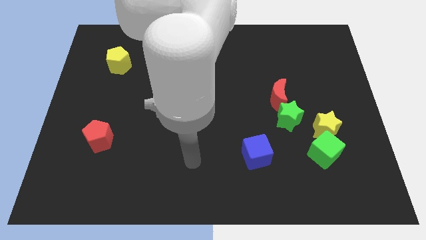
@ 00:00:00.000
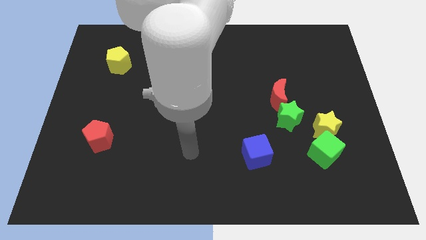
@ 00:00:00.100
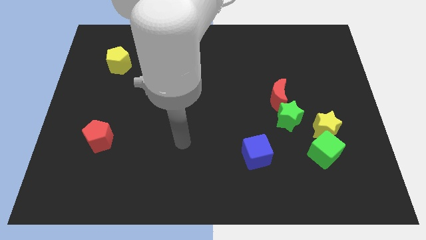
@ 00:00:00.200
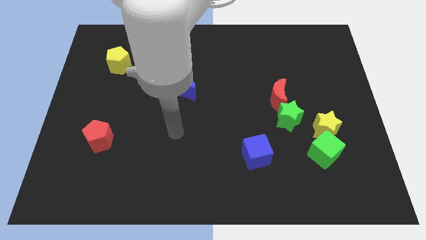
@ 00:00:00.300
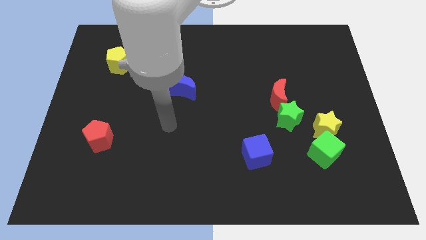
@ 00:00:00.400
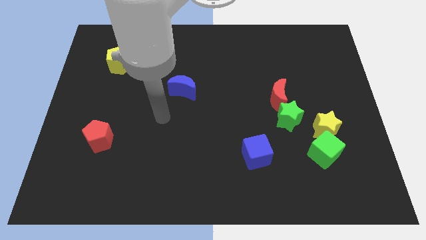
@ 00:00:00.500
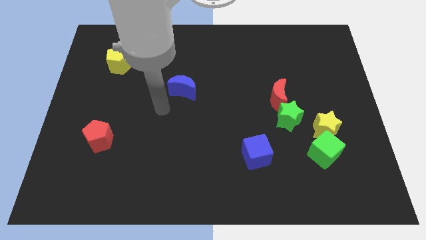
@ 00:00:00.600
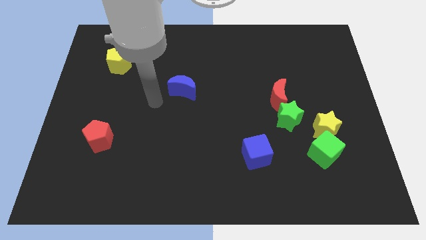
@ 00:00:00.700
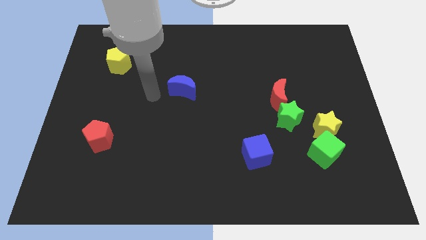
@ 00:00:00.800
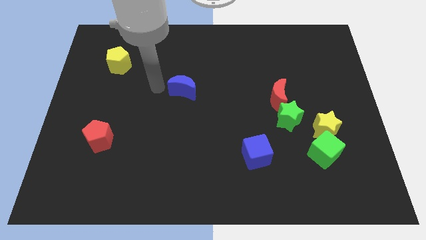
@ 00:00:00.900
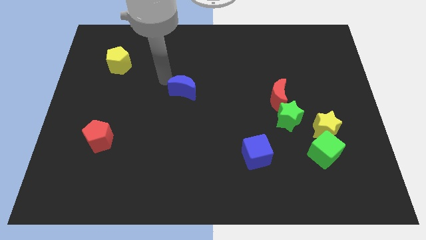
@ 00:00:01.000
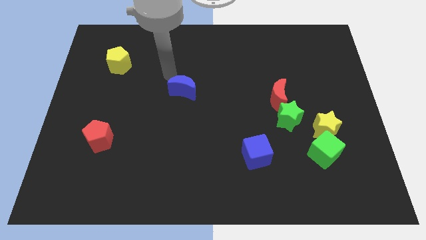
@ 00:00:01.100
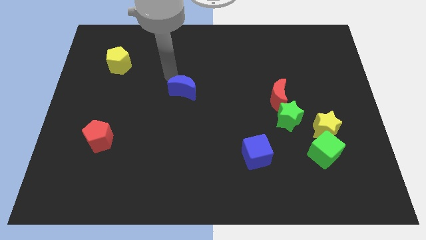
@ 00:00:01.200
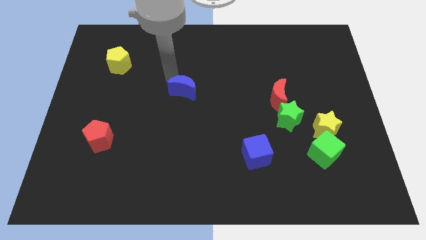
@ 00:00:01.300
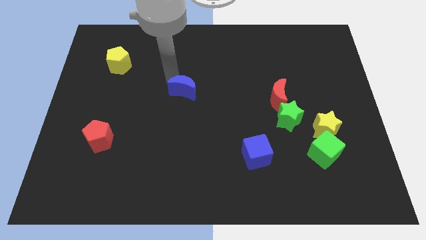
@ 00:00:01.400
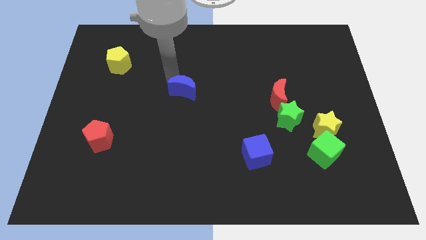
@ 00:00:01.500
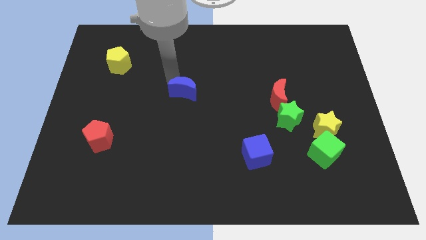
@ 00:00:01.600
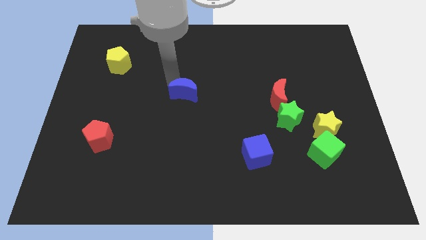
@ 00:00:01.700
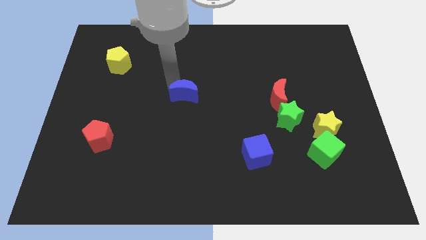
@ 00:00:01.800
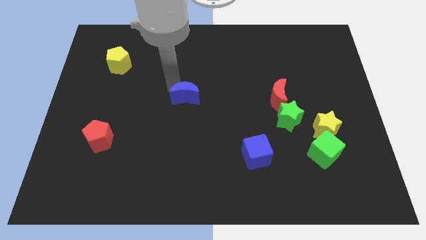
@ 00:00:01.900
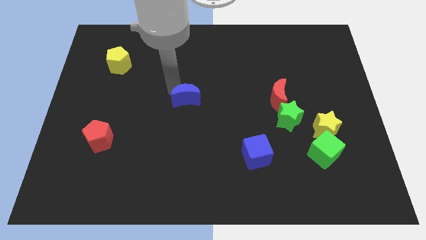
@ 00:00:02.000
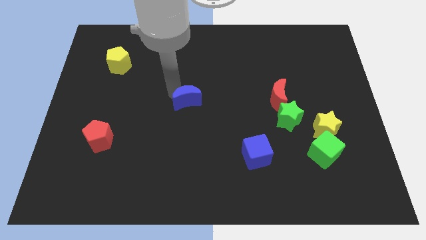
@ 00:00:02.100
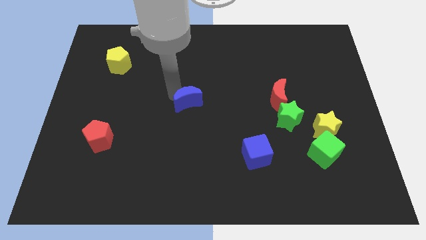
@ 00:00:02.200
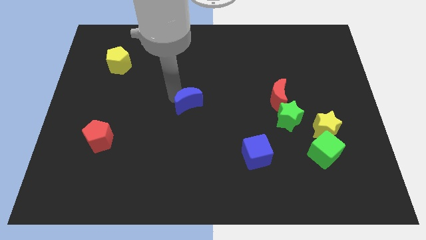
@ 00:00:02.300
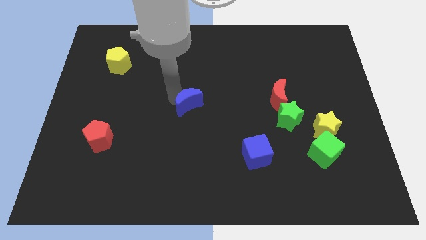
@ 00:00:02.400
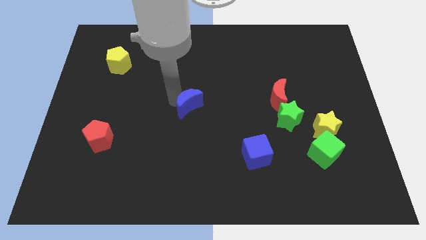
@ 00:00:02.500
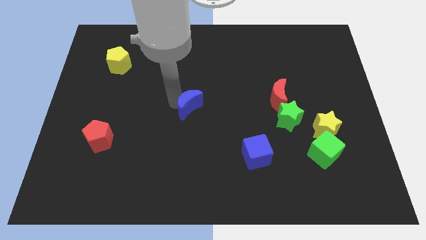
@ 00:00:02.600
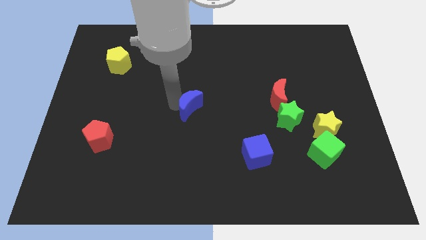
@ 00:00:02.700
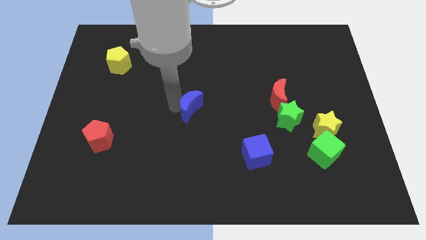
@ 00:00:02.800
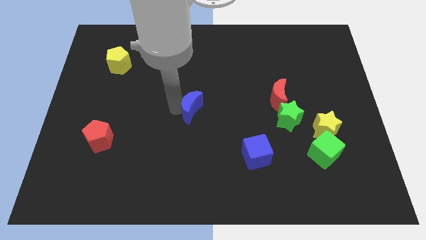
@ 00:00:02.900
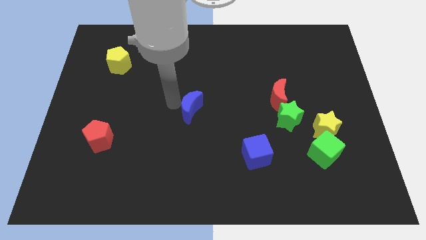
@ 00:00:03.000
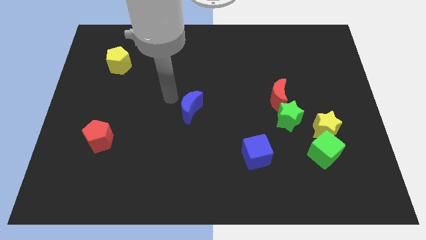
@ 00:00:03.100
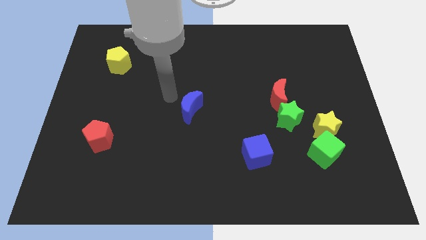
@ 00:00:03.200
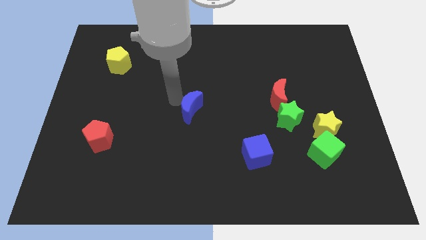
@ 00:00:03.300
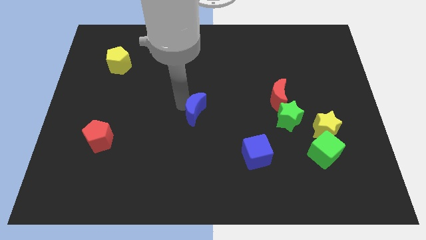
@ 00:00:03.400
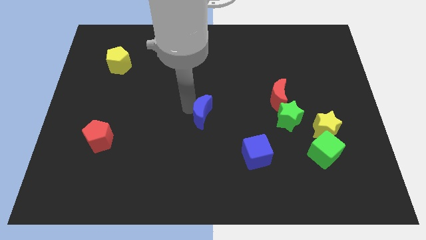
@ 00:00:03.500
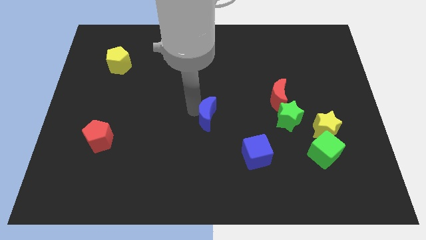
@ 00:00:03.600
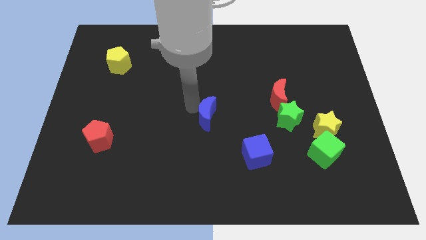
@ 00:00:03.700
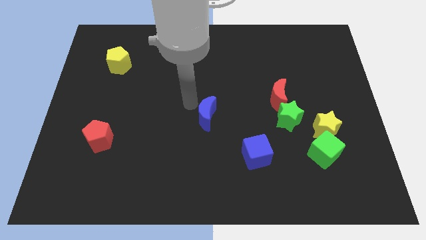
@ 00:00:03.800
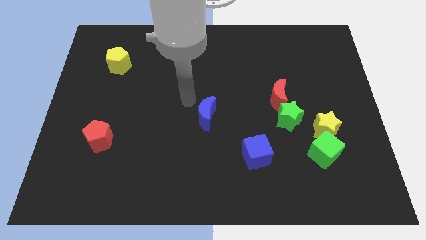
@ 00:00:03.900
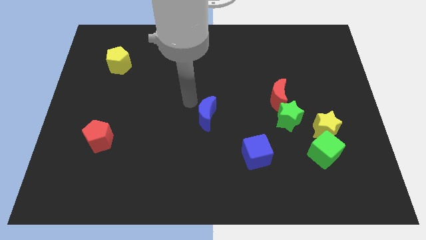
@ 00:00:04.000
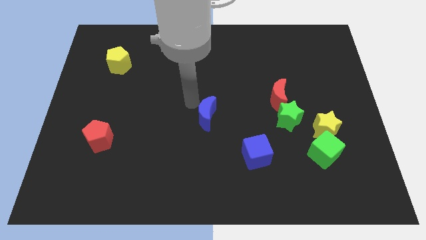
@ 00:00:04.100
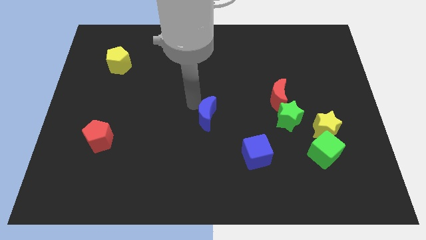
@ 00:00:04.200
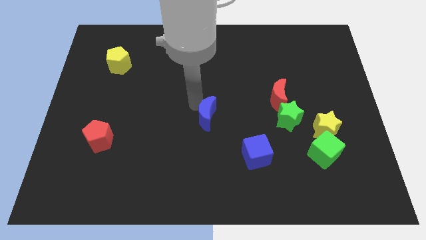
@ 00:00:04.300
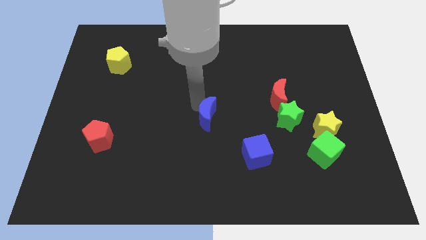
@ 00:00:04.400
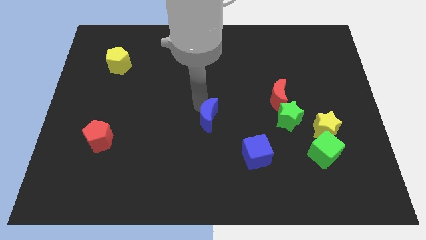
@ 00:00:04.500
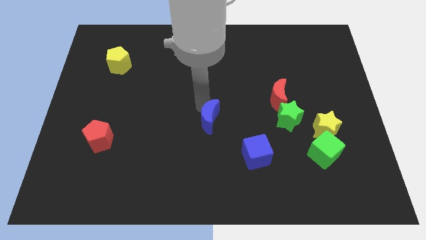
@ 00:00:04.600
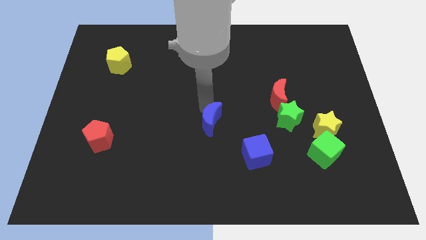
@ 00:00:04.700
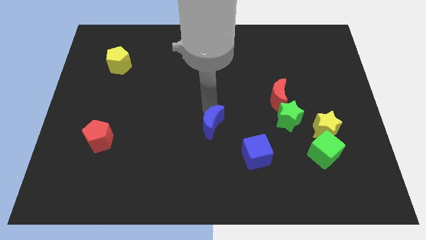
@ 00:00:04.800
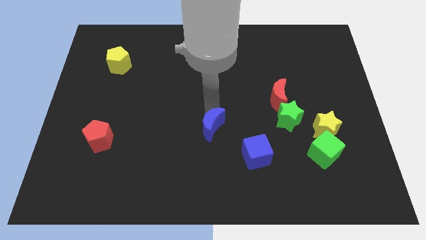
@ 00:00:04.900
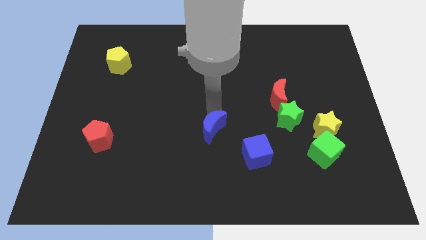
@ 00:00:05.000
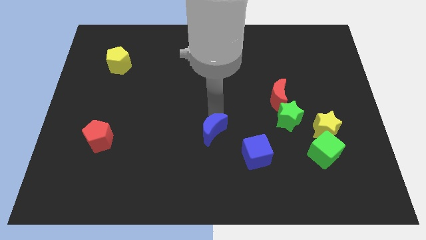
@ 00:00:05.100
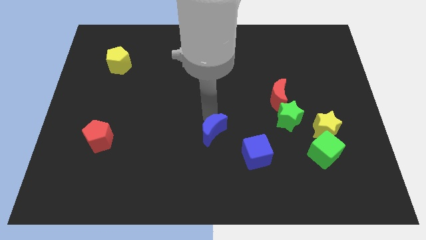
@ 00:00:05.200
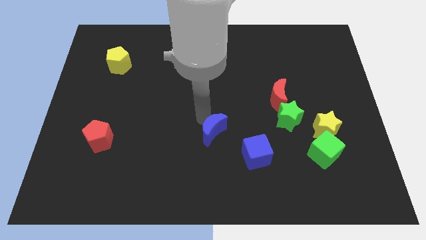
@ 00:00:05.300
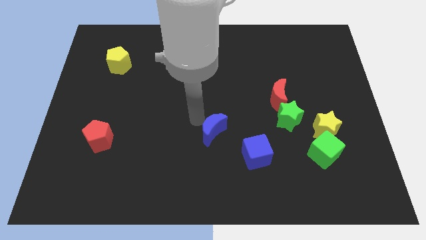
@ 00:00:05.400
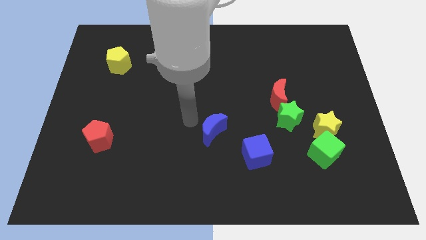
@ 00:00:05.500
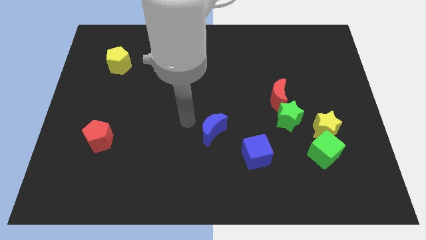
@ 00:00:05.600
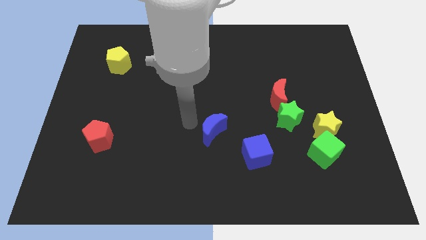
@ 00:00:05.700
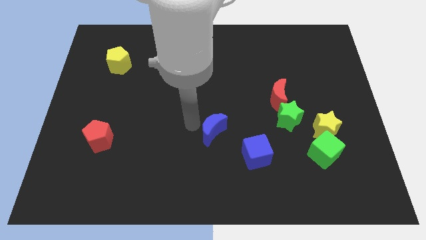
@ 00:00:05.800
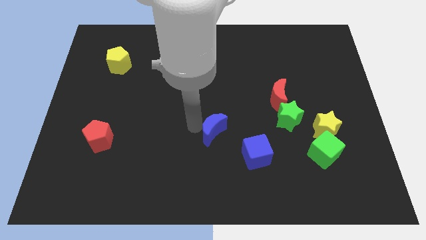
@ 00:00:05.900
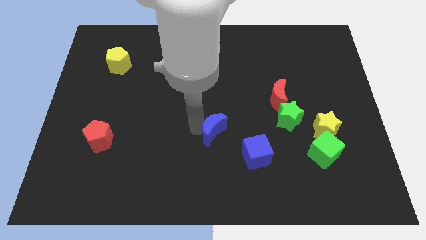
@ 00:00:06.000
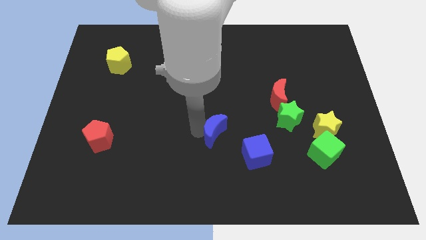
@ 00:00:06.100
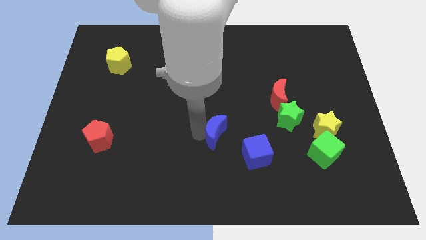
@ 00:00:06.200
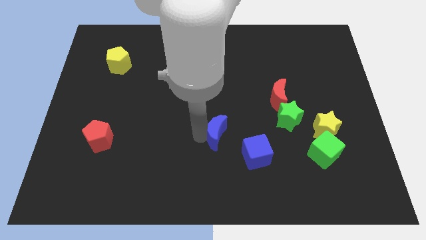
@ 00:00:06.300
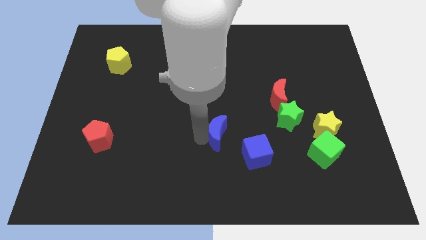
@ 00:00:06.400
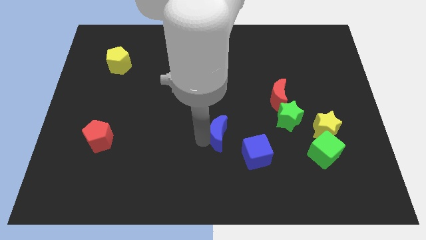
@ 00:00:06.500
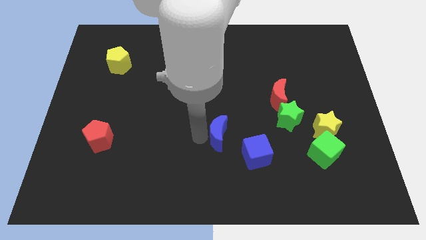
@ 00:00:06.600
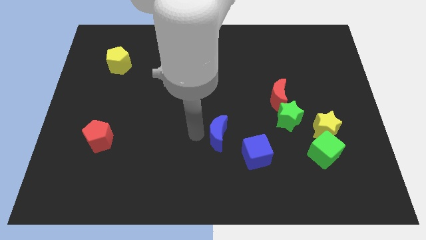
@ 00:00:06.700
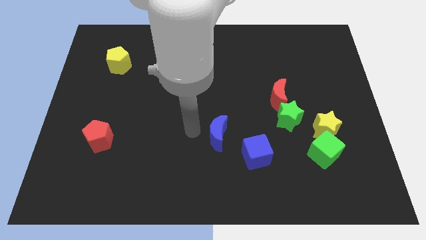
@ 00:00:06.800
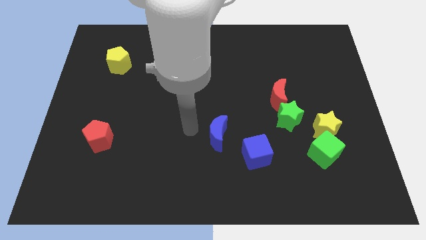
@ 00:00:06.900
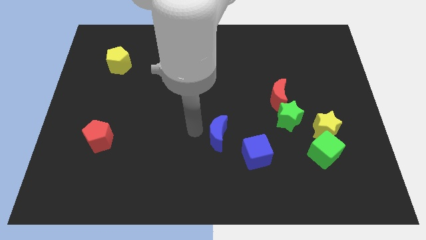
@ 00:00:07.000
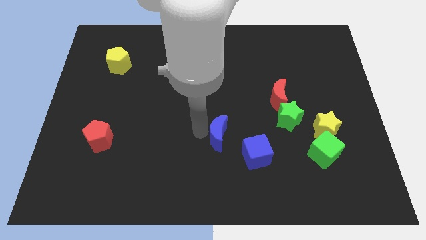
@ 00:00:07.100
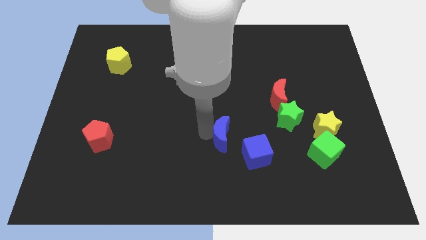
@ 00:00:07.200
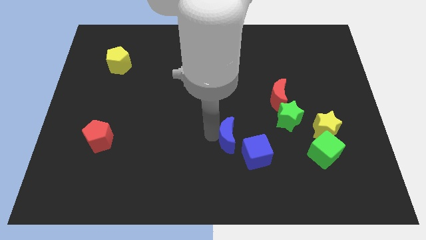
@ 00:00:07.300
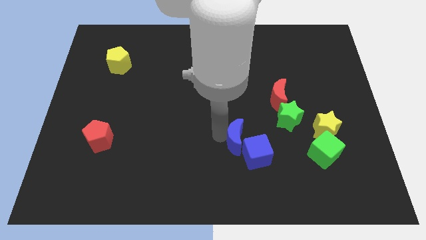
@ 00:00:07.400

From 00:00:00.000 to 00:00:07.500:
move the blue moon next to the blue cube
